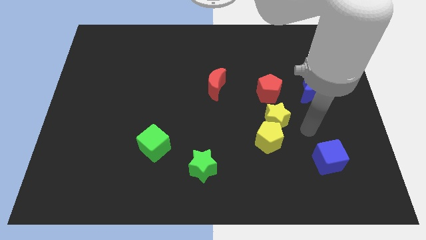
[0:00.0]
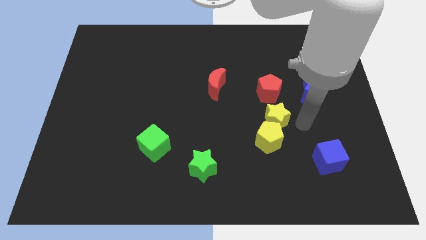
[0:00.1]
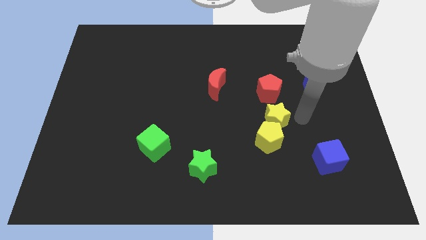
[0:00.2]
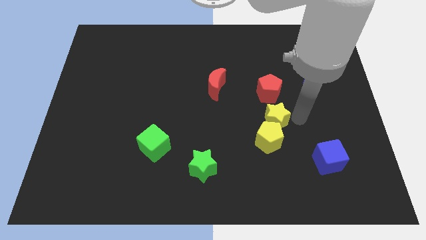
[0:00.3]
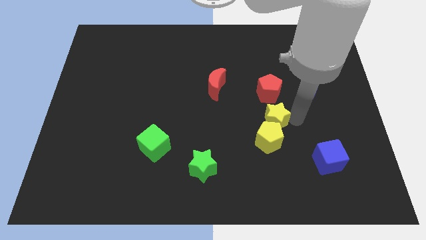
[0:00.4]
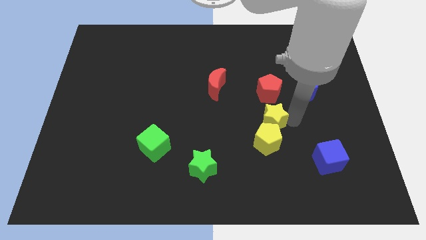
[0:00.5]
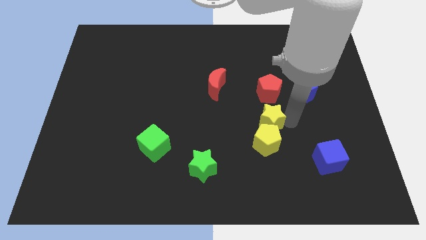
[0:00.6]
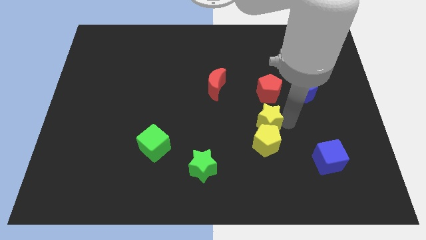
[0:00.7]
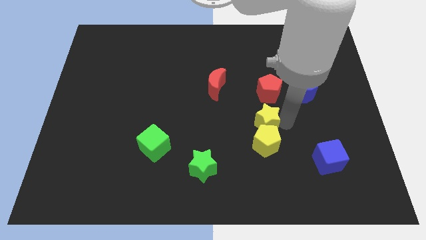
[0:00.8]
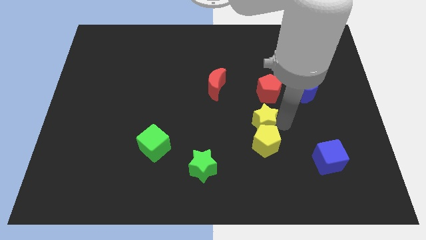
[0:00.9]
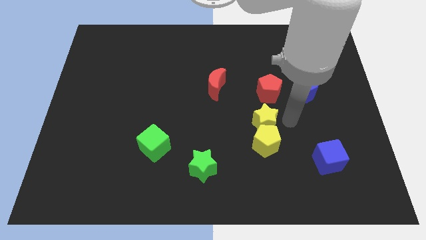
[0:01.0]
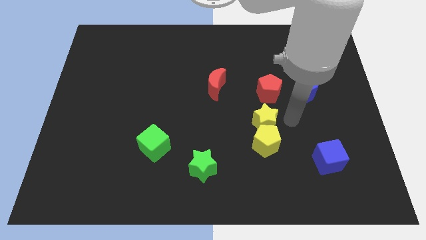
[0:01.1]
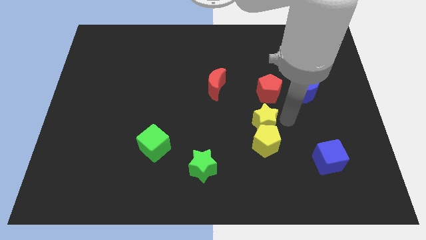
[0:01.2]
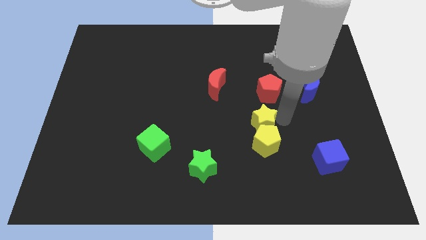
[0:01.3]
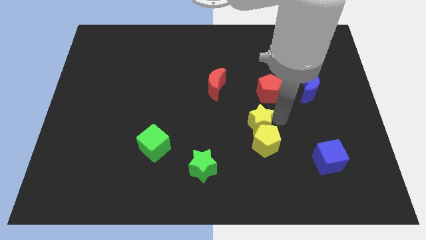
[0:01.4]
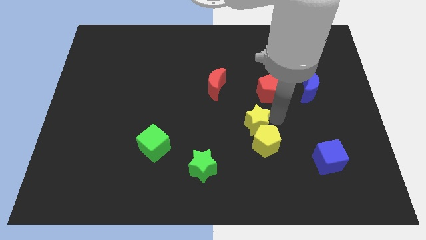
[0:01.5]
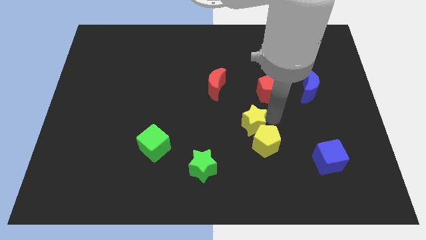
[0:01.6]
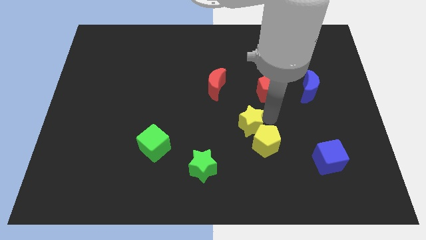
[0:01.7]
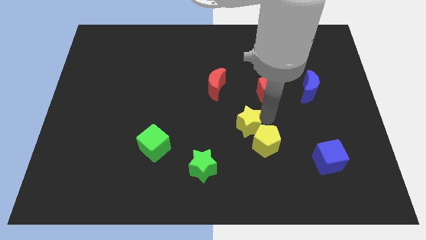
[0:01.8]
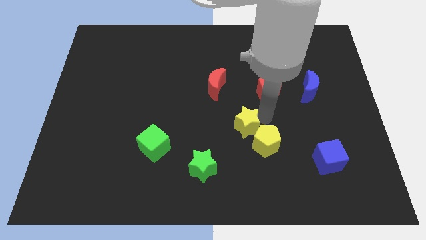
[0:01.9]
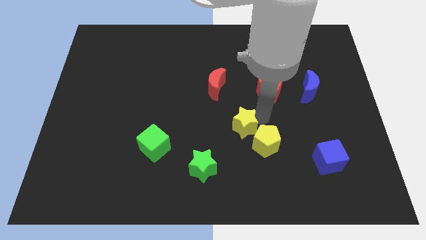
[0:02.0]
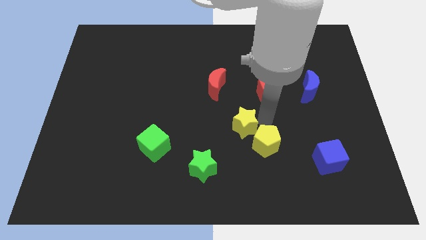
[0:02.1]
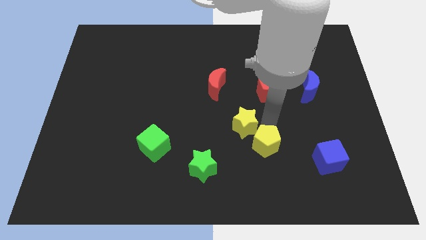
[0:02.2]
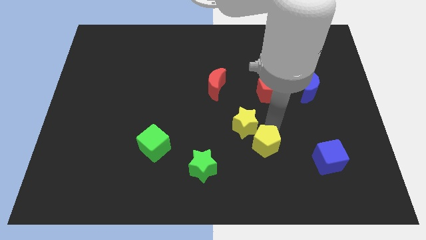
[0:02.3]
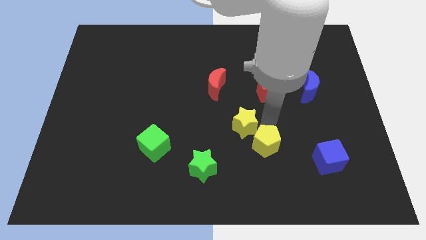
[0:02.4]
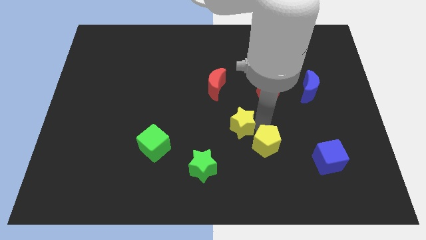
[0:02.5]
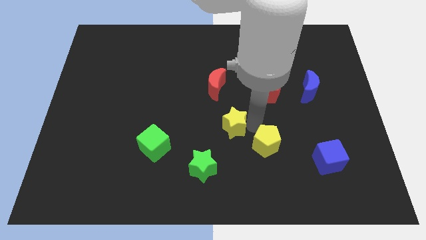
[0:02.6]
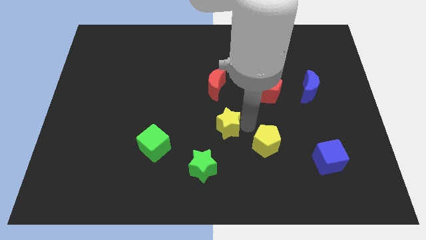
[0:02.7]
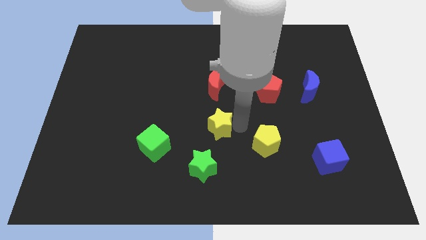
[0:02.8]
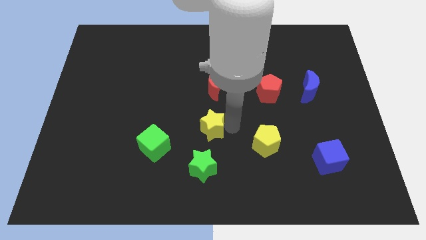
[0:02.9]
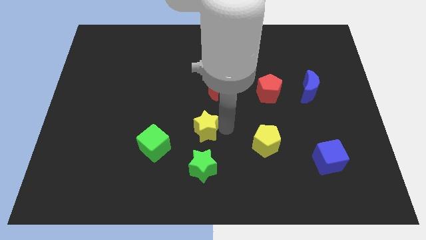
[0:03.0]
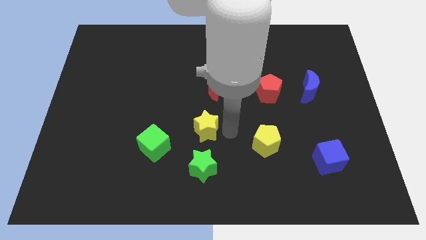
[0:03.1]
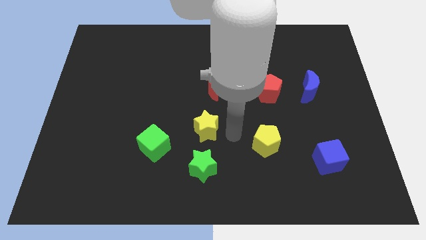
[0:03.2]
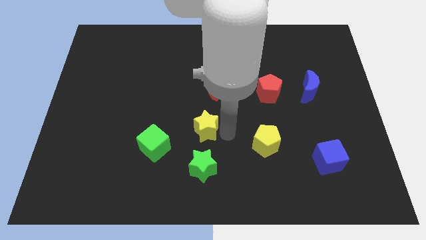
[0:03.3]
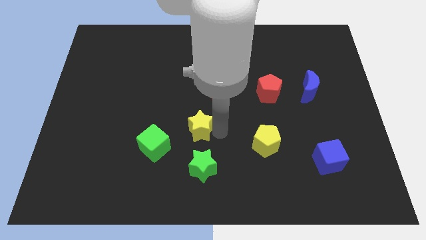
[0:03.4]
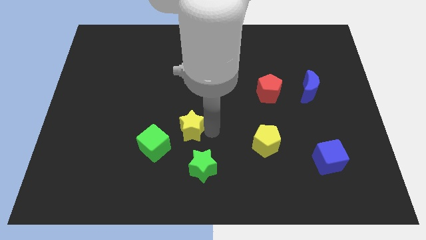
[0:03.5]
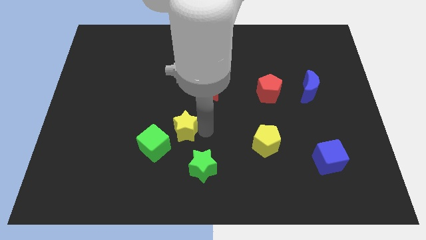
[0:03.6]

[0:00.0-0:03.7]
slide the yellow star left

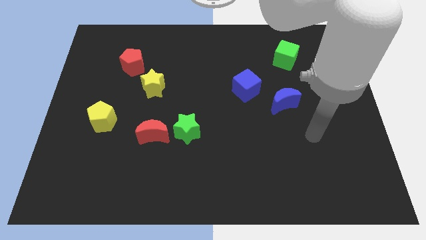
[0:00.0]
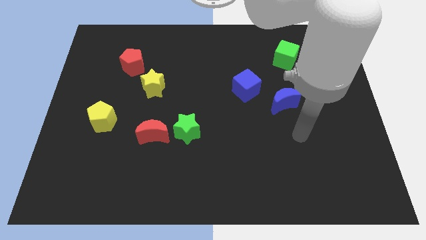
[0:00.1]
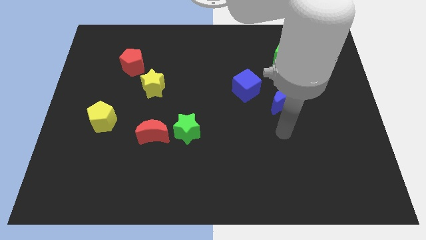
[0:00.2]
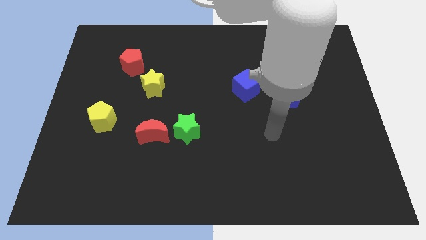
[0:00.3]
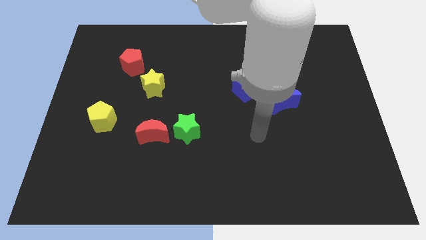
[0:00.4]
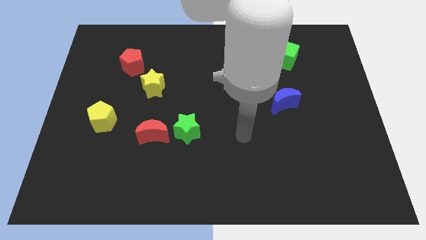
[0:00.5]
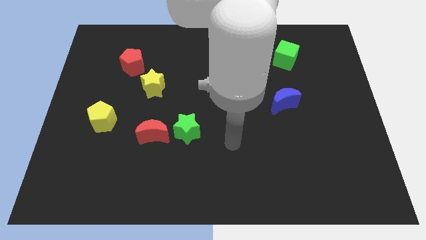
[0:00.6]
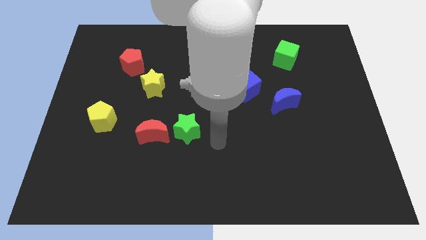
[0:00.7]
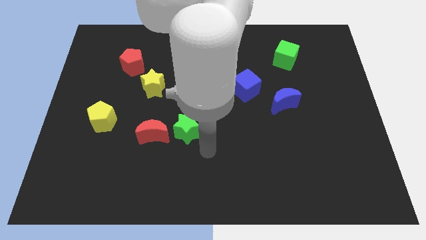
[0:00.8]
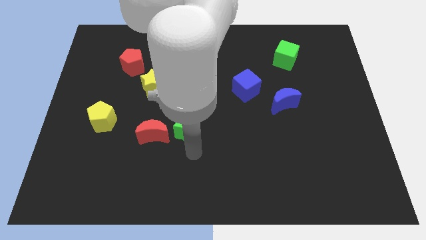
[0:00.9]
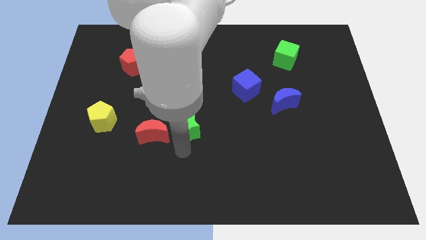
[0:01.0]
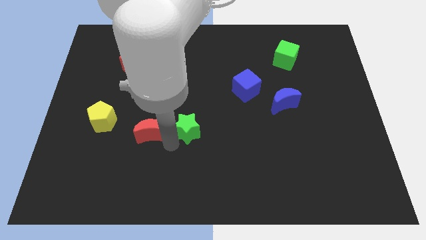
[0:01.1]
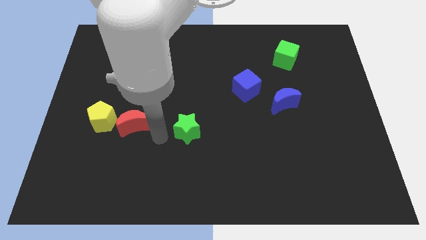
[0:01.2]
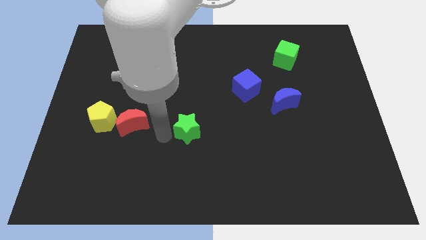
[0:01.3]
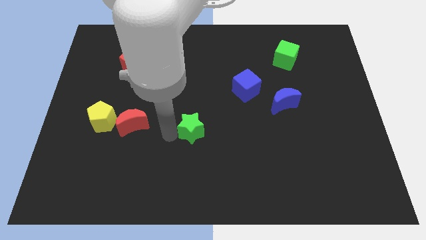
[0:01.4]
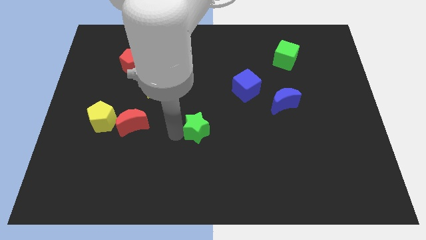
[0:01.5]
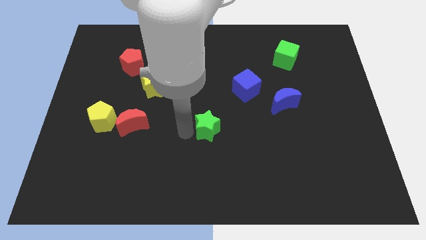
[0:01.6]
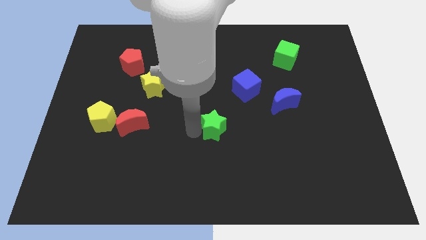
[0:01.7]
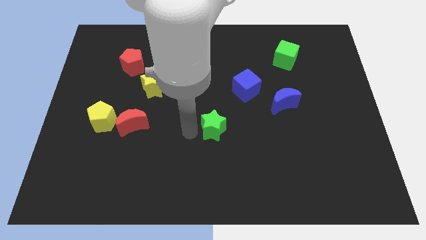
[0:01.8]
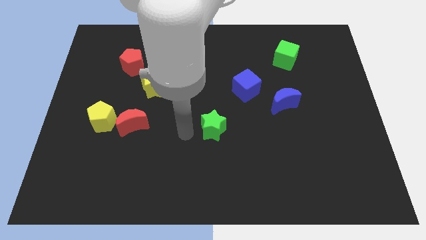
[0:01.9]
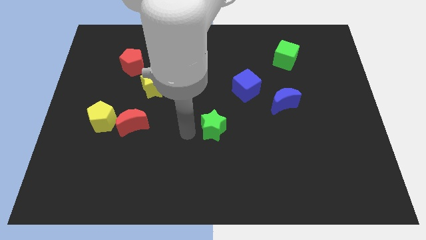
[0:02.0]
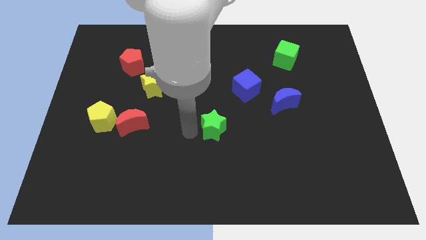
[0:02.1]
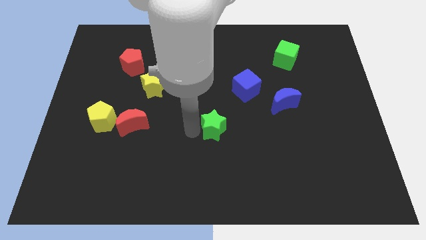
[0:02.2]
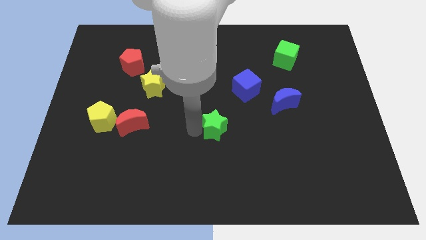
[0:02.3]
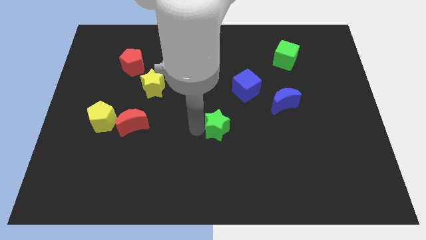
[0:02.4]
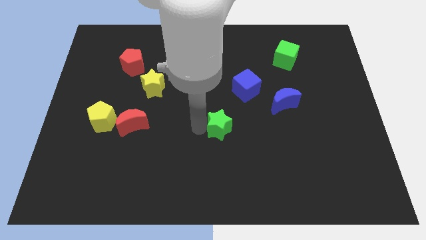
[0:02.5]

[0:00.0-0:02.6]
slightly slide the green star to the right

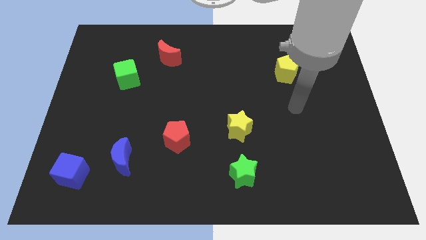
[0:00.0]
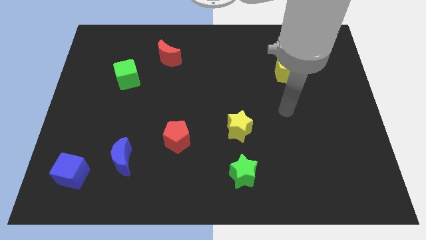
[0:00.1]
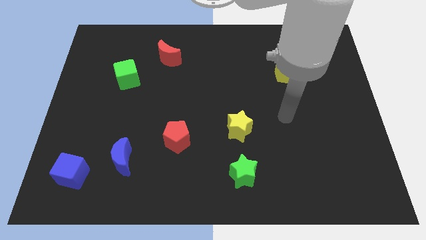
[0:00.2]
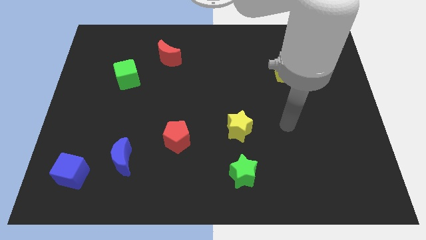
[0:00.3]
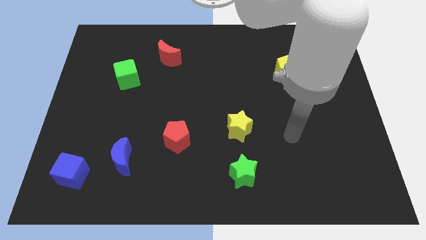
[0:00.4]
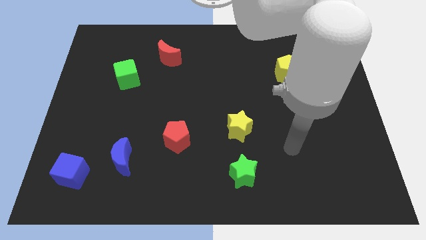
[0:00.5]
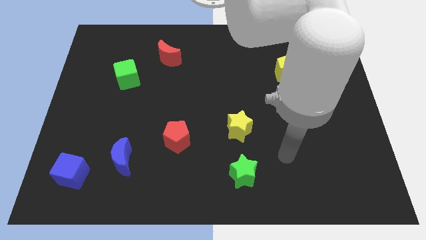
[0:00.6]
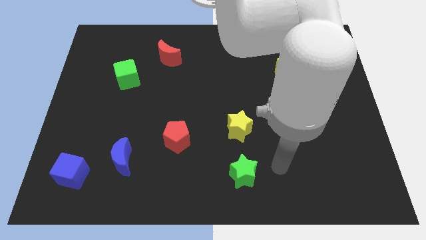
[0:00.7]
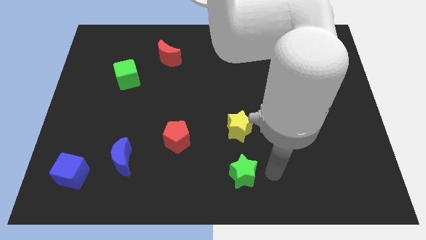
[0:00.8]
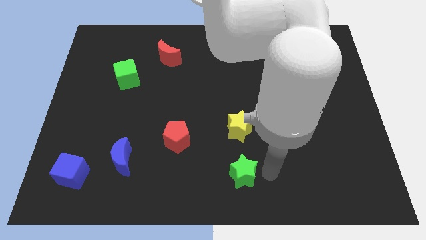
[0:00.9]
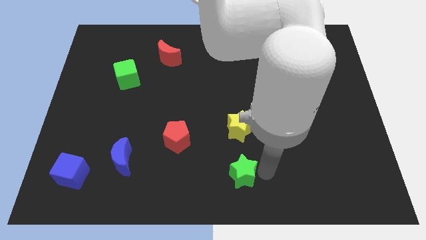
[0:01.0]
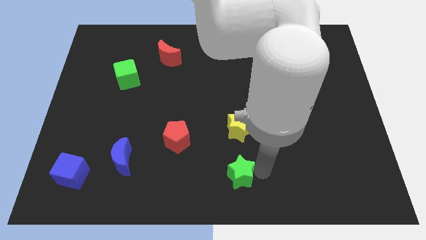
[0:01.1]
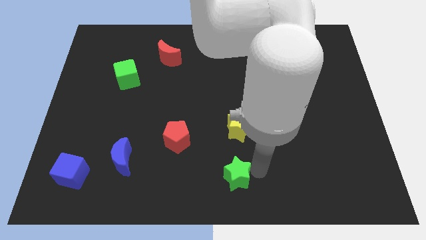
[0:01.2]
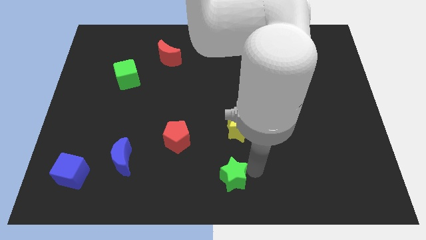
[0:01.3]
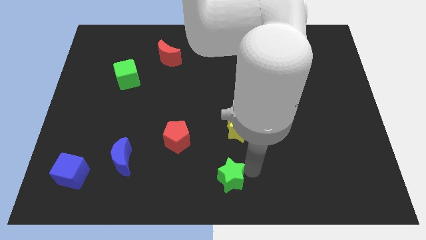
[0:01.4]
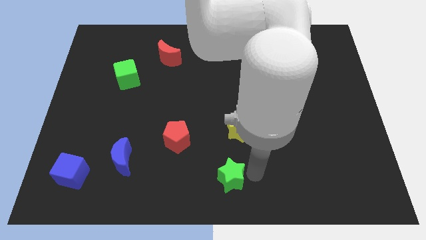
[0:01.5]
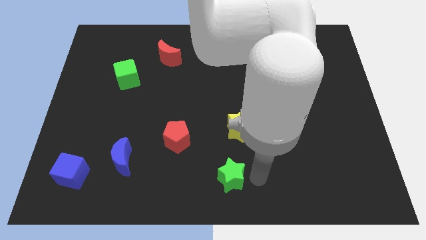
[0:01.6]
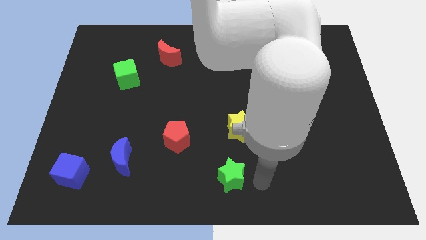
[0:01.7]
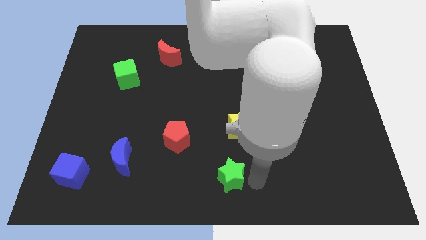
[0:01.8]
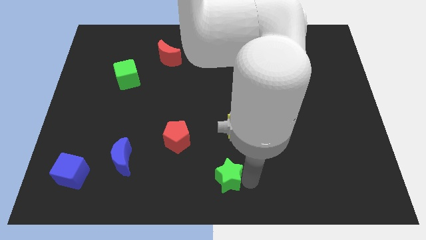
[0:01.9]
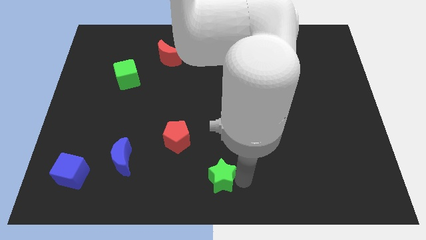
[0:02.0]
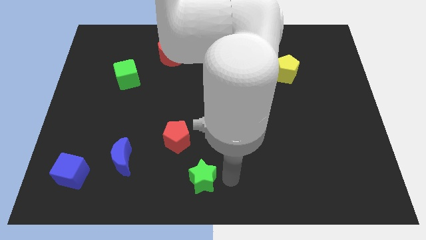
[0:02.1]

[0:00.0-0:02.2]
slide the green star left a little bit
